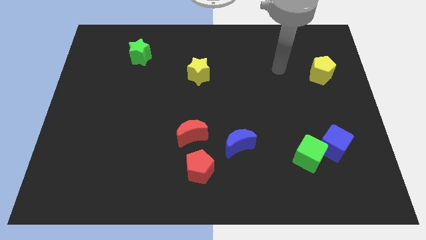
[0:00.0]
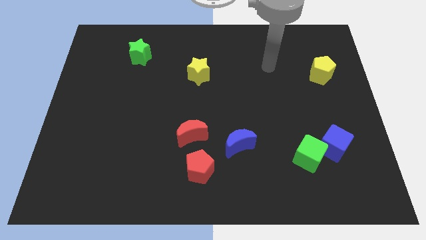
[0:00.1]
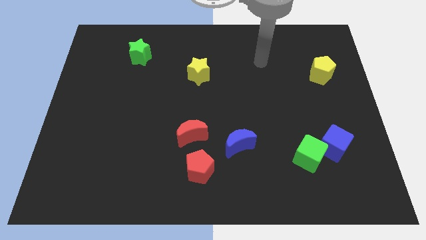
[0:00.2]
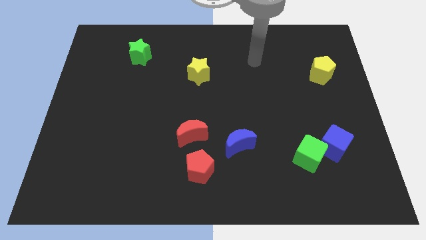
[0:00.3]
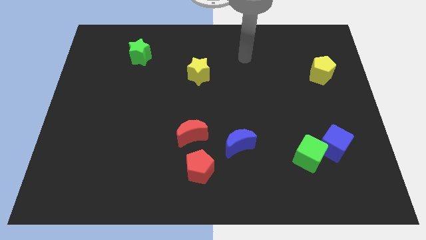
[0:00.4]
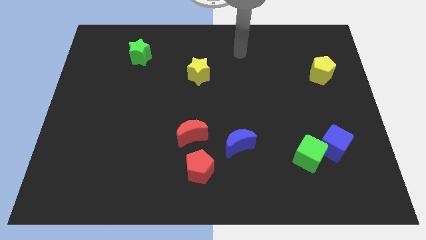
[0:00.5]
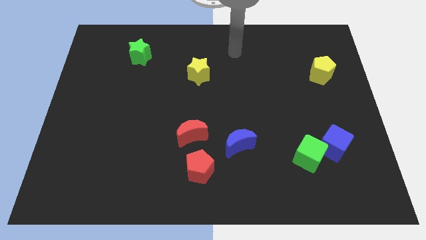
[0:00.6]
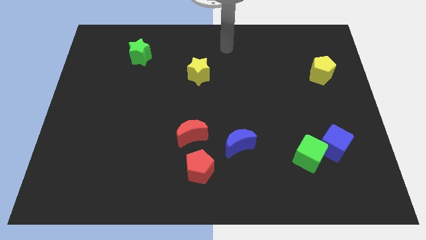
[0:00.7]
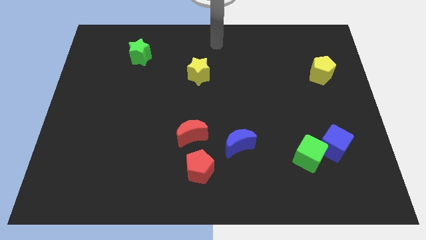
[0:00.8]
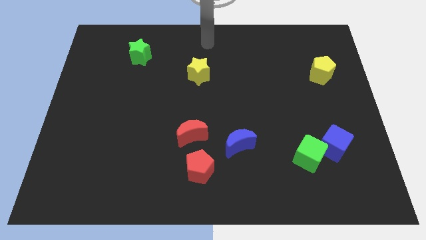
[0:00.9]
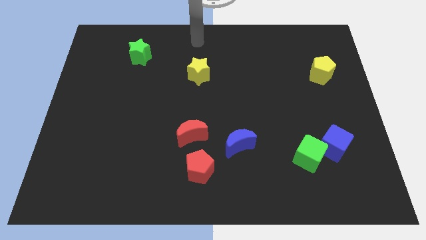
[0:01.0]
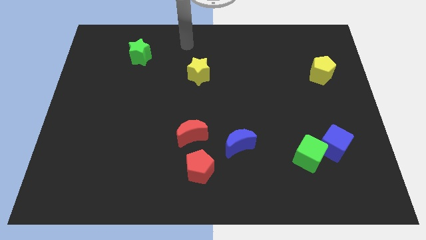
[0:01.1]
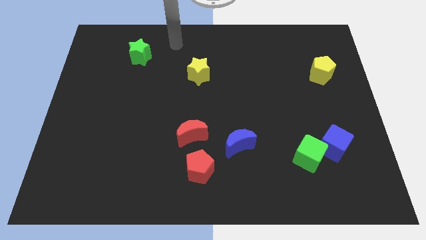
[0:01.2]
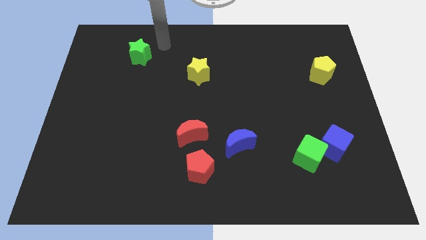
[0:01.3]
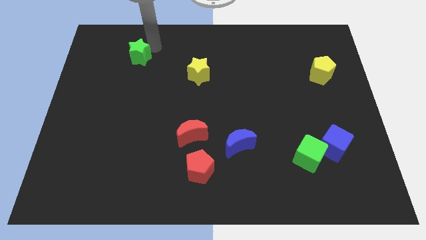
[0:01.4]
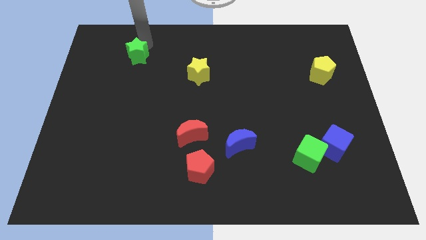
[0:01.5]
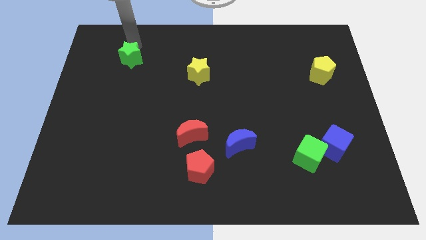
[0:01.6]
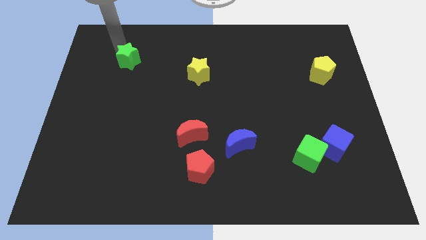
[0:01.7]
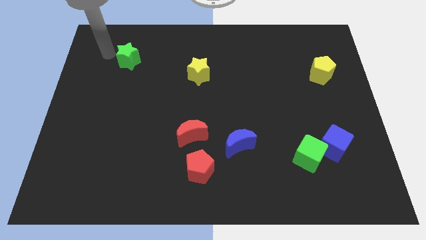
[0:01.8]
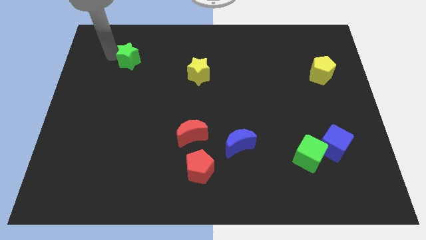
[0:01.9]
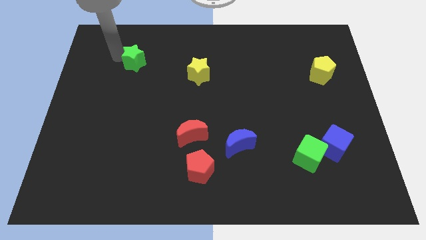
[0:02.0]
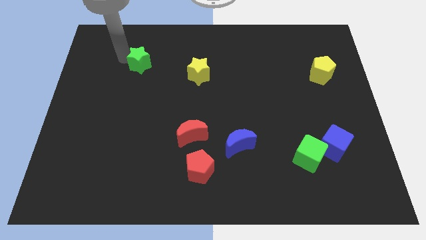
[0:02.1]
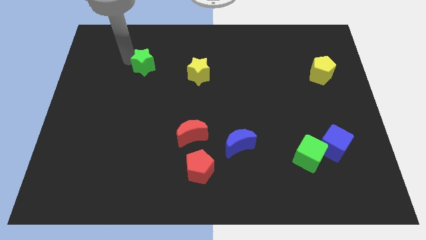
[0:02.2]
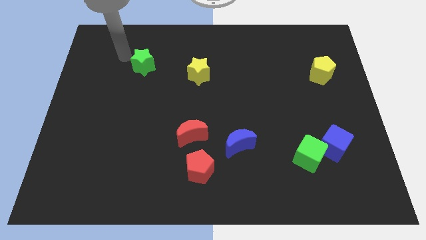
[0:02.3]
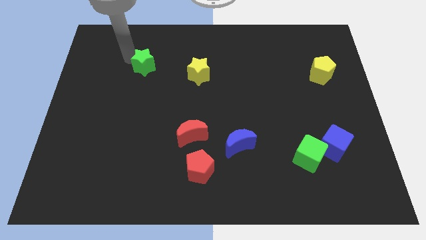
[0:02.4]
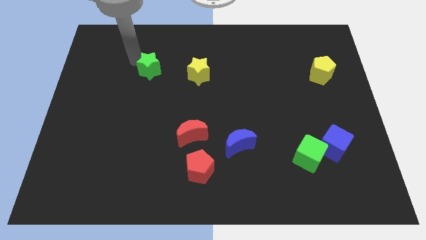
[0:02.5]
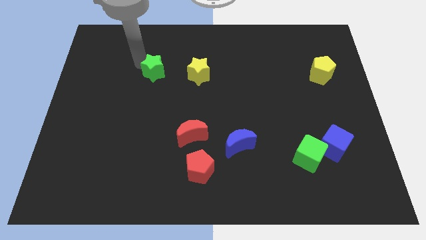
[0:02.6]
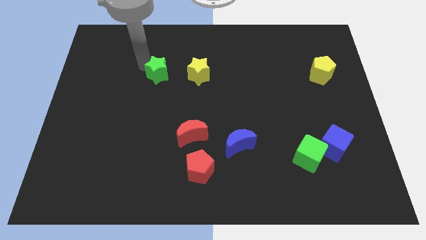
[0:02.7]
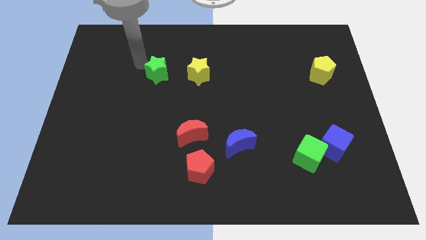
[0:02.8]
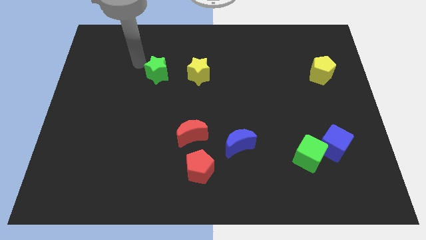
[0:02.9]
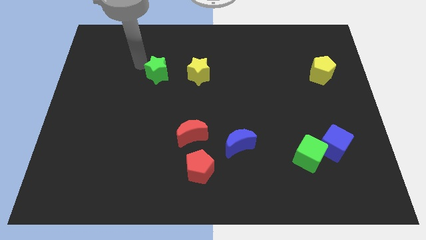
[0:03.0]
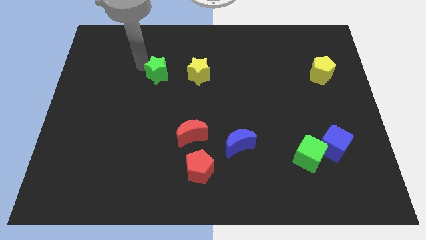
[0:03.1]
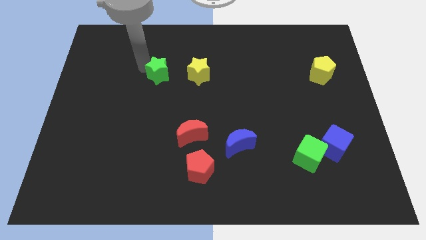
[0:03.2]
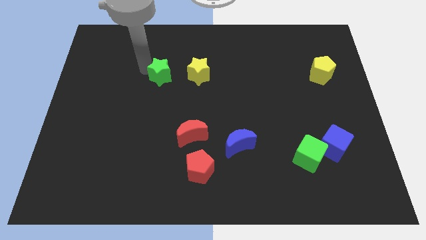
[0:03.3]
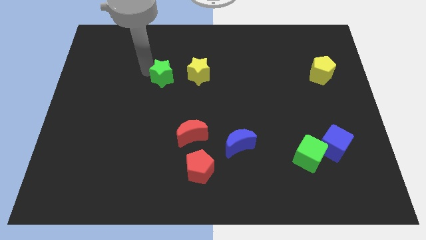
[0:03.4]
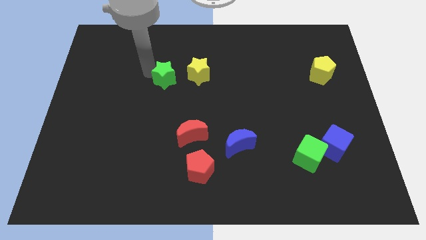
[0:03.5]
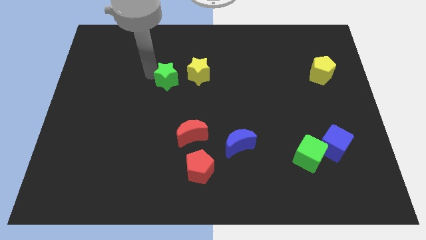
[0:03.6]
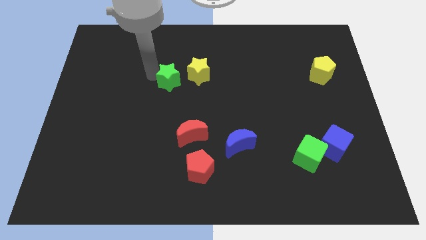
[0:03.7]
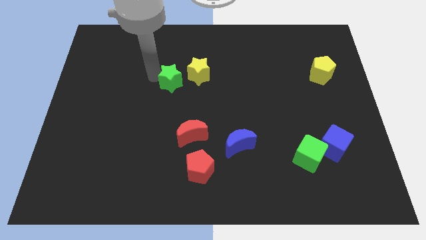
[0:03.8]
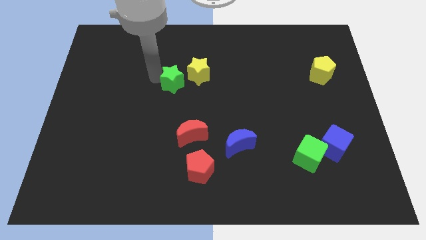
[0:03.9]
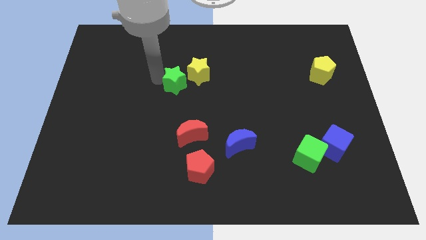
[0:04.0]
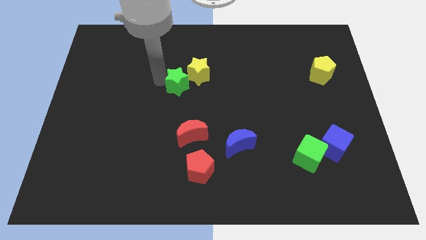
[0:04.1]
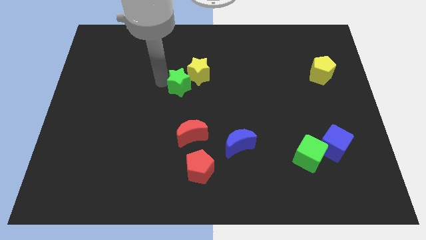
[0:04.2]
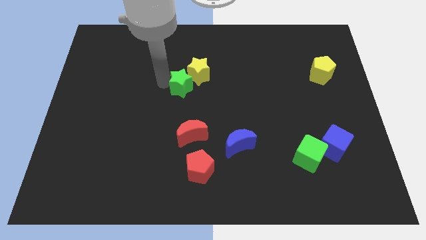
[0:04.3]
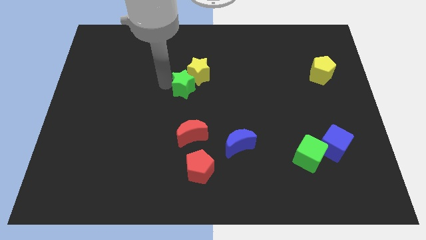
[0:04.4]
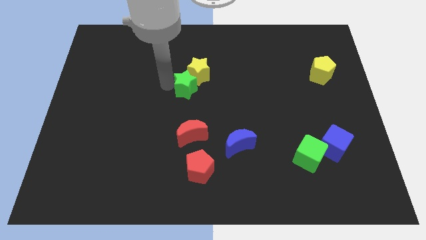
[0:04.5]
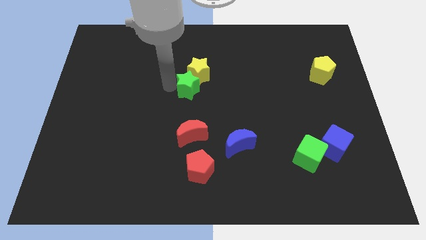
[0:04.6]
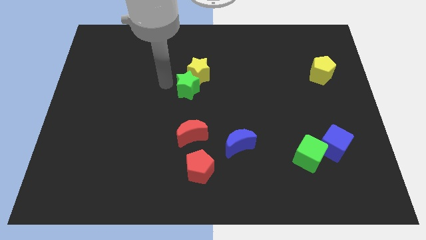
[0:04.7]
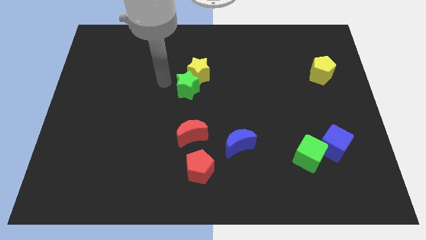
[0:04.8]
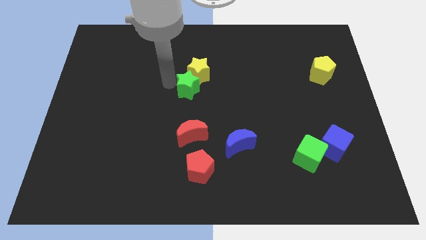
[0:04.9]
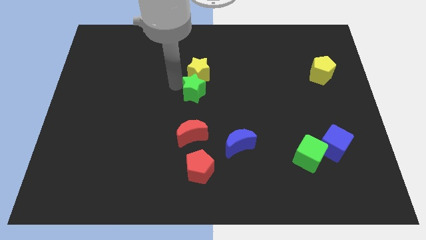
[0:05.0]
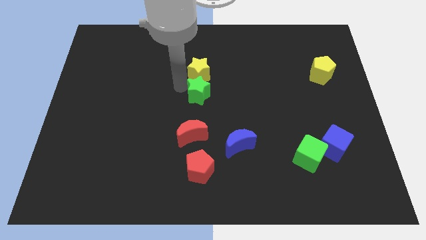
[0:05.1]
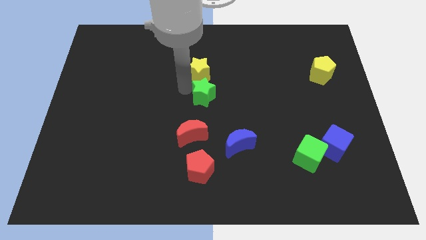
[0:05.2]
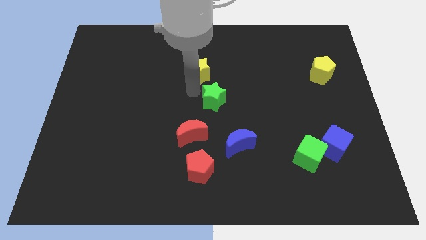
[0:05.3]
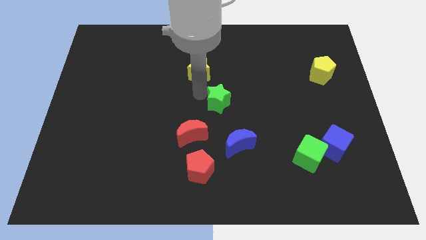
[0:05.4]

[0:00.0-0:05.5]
push the green star above the blue moon

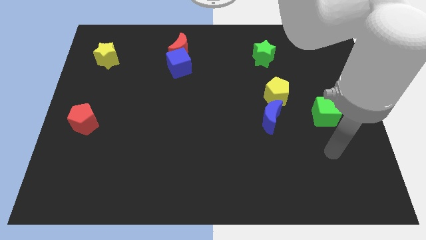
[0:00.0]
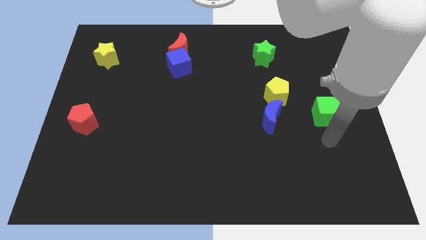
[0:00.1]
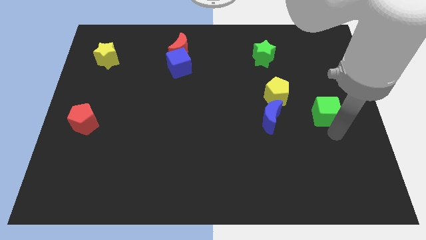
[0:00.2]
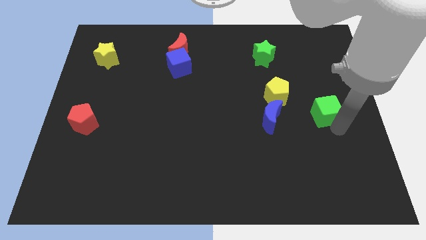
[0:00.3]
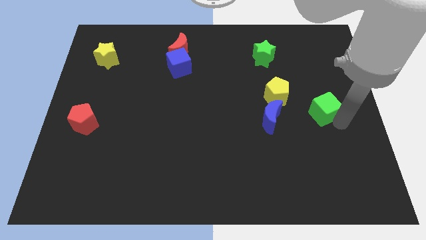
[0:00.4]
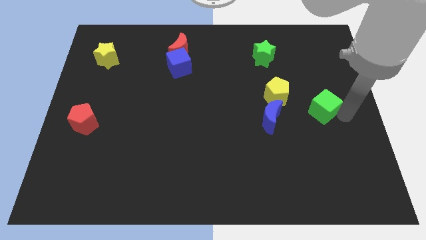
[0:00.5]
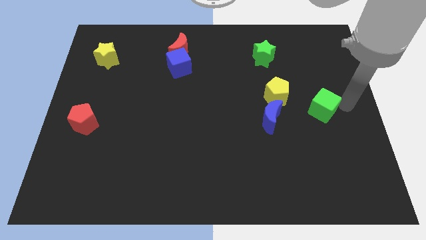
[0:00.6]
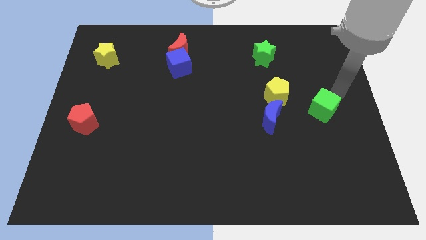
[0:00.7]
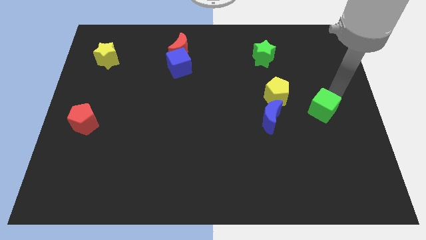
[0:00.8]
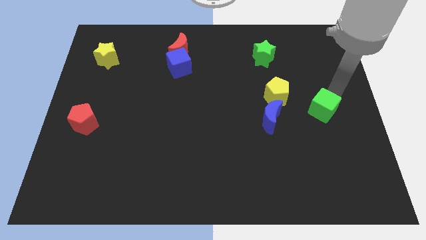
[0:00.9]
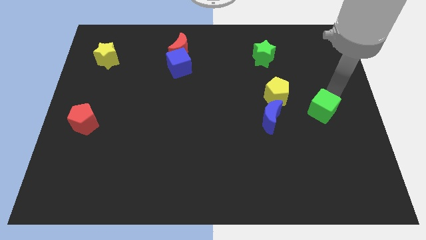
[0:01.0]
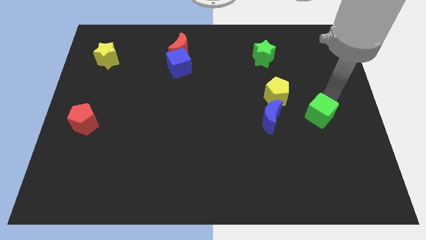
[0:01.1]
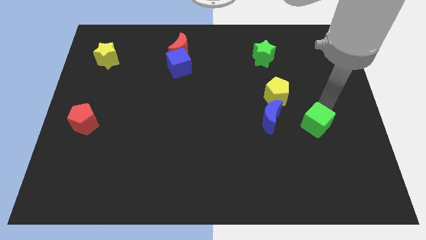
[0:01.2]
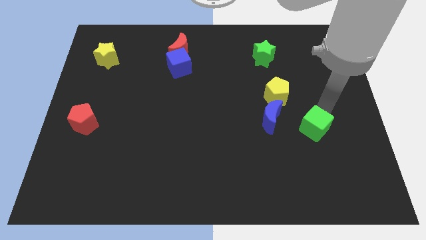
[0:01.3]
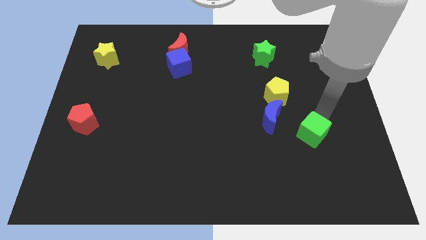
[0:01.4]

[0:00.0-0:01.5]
push the green cube diagonally down and to the right of the blue moon

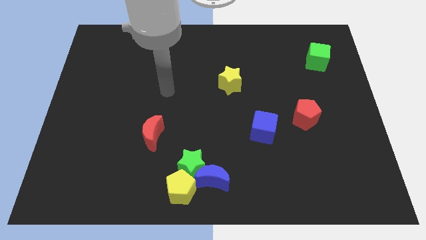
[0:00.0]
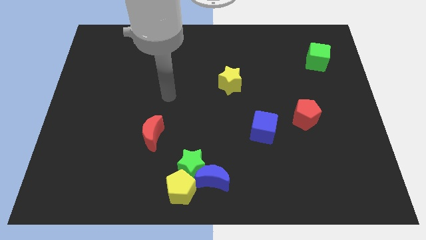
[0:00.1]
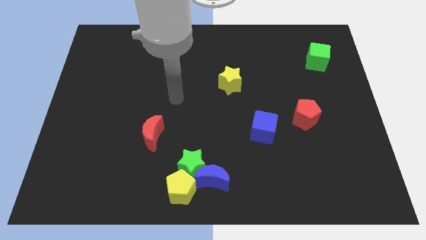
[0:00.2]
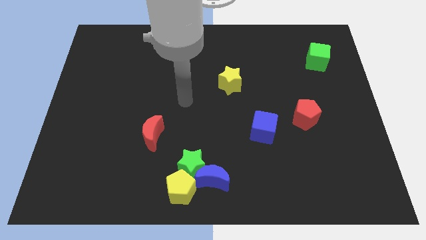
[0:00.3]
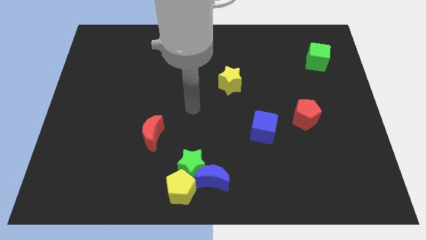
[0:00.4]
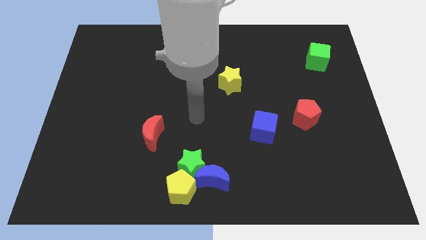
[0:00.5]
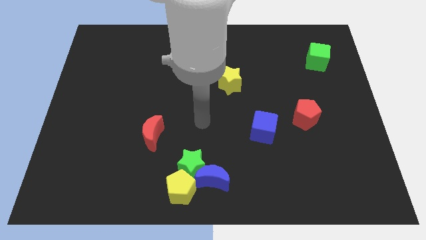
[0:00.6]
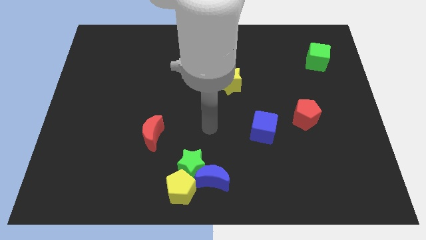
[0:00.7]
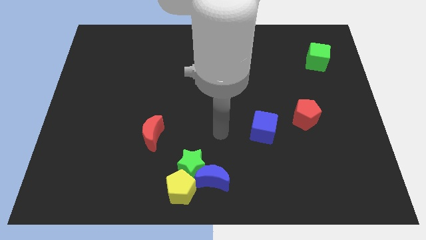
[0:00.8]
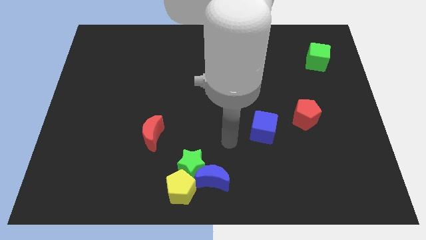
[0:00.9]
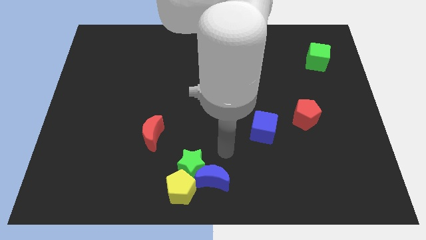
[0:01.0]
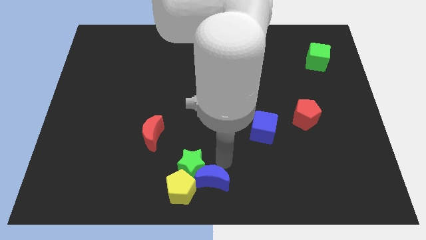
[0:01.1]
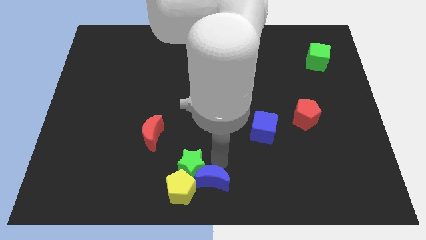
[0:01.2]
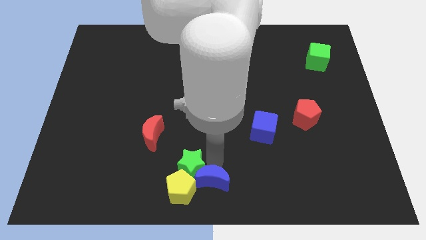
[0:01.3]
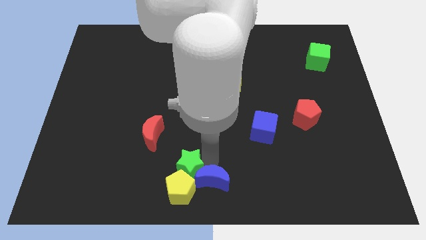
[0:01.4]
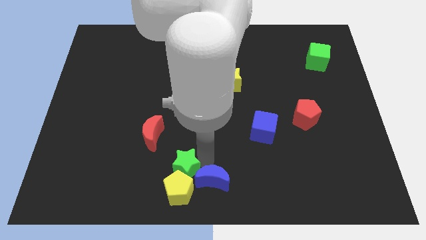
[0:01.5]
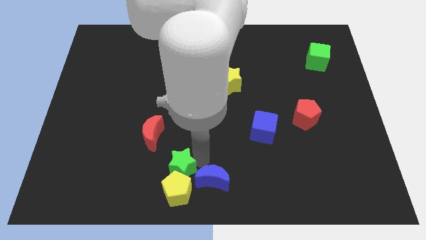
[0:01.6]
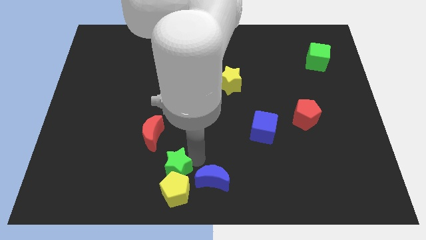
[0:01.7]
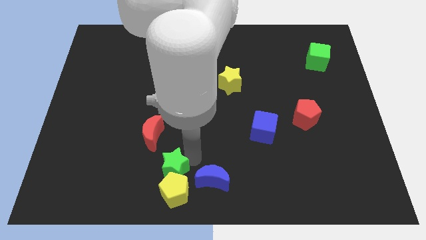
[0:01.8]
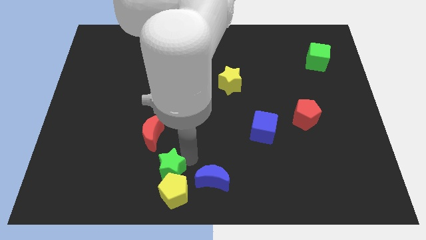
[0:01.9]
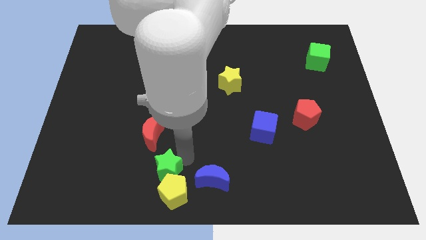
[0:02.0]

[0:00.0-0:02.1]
put the green star to the bottom side of the red moon
